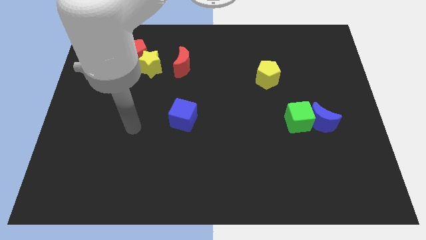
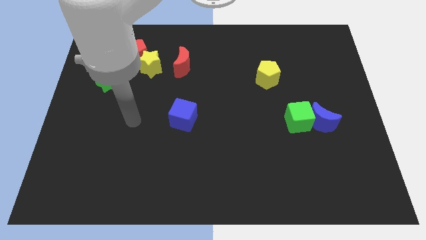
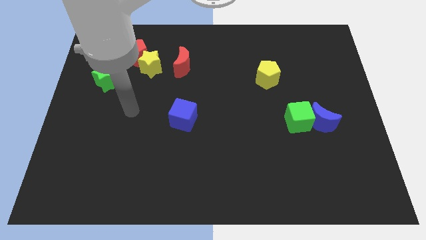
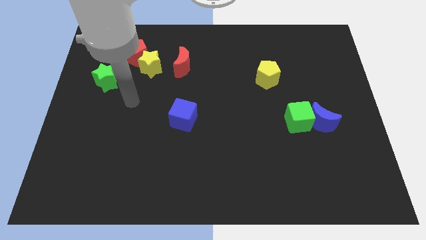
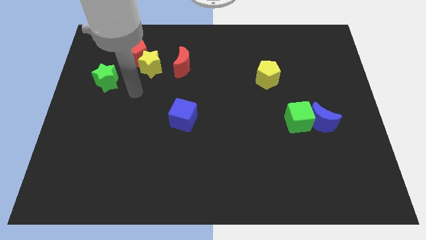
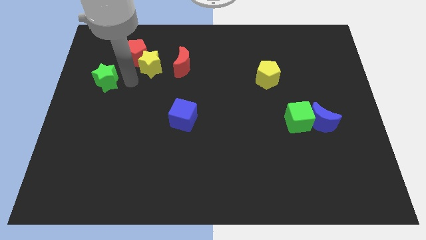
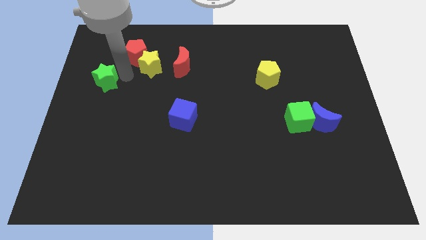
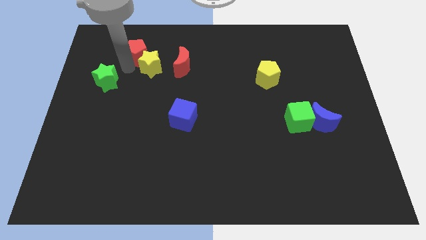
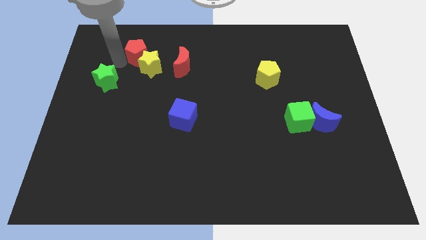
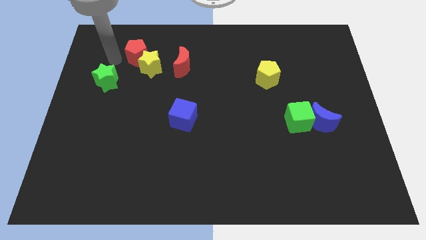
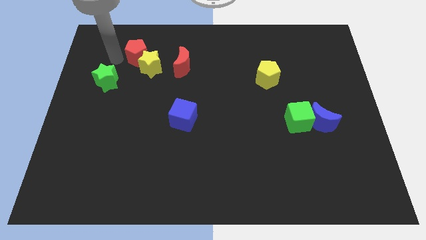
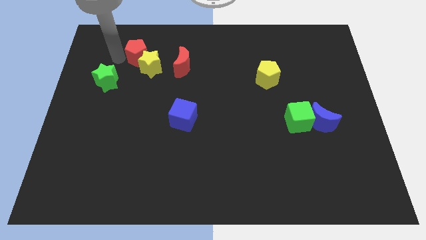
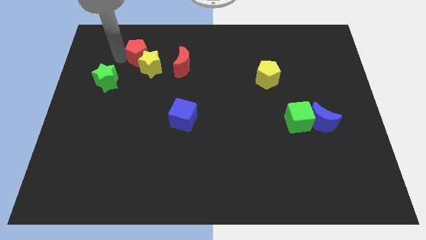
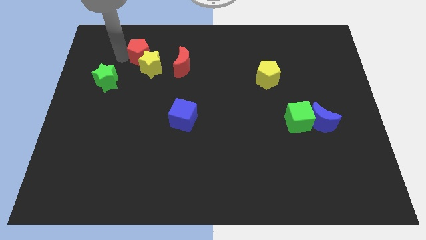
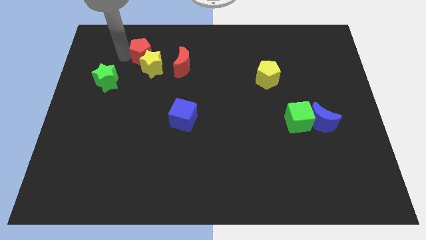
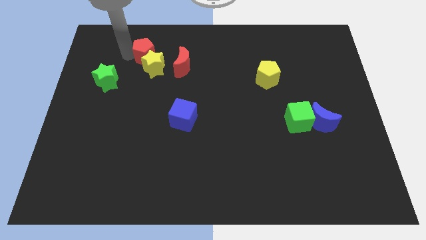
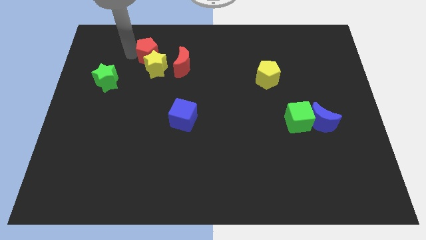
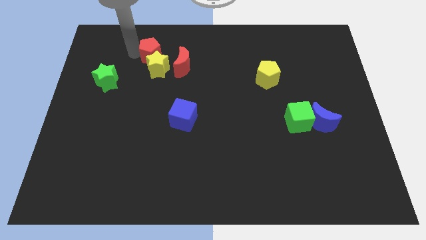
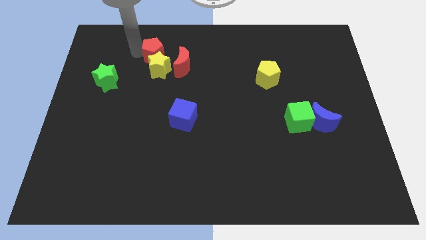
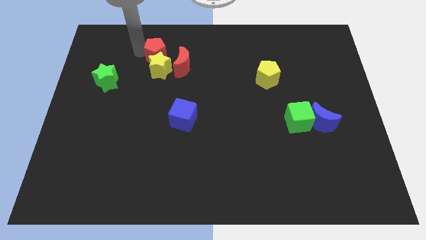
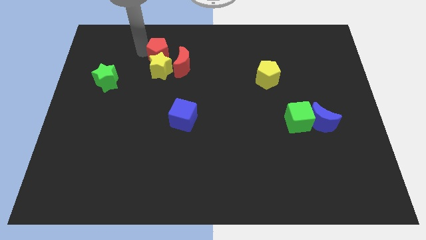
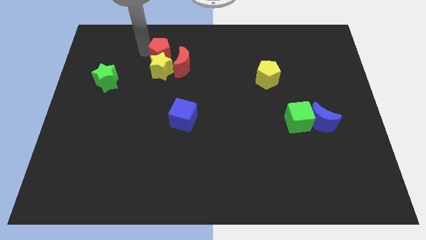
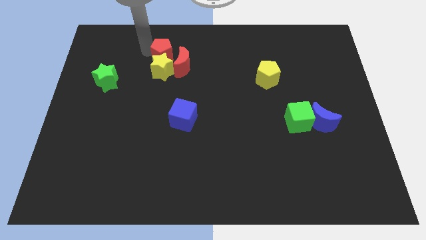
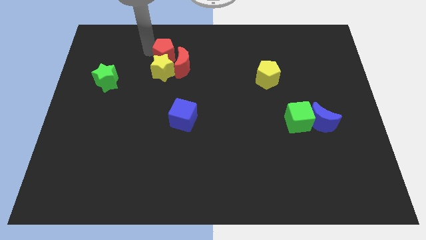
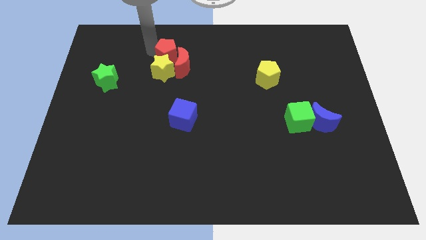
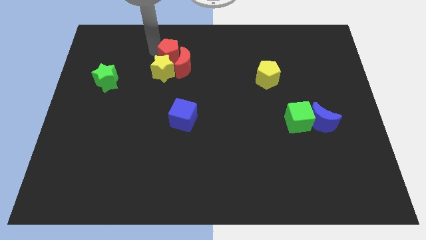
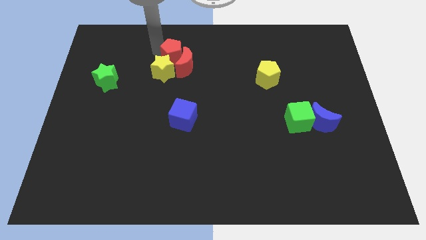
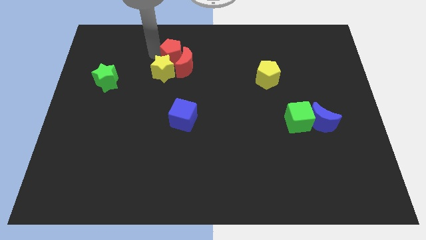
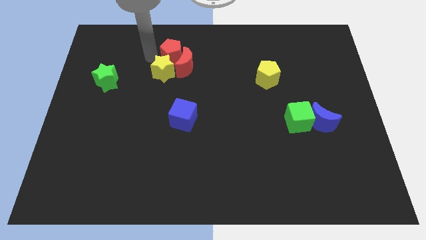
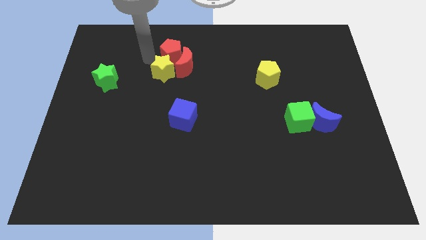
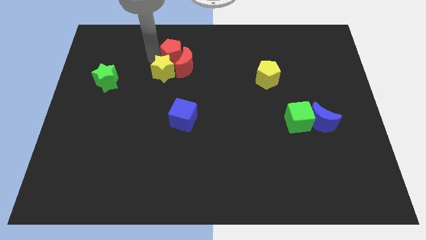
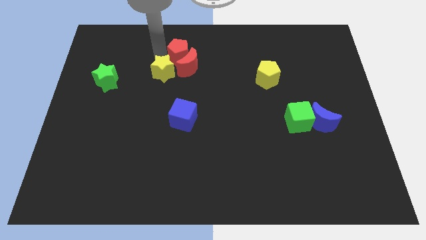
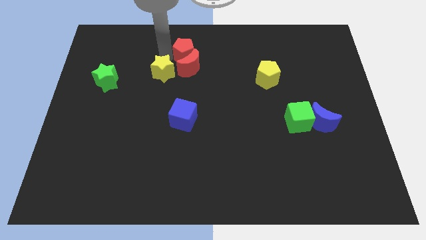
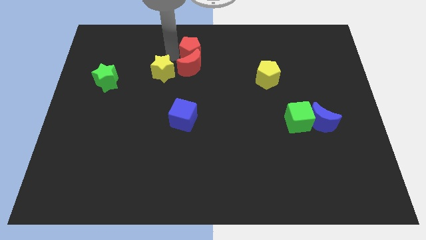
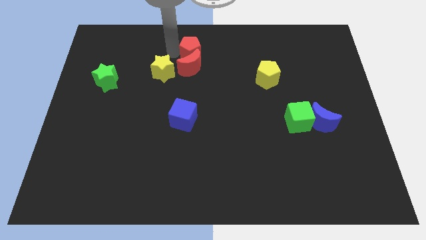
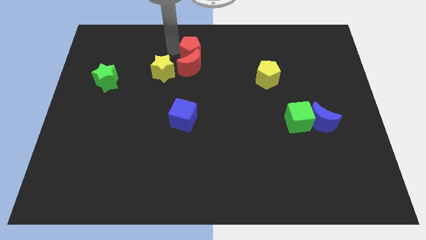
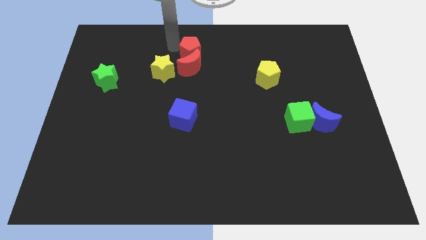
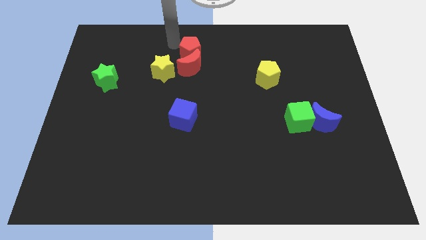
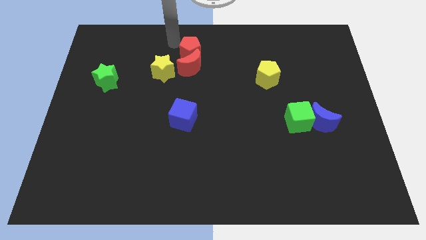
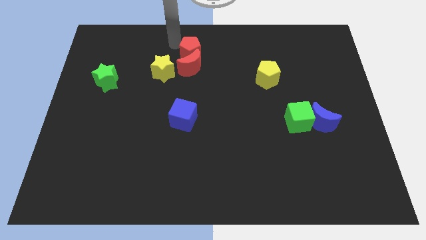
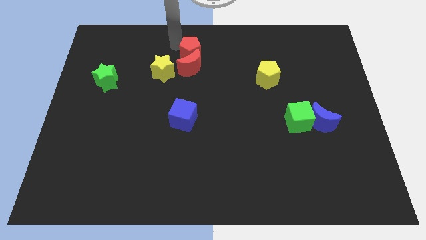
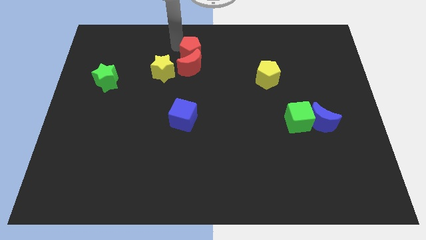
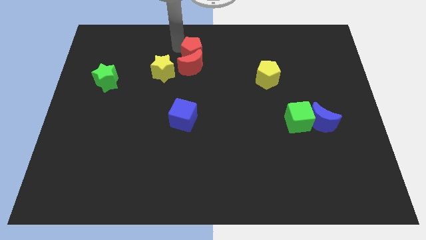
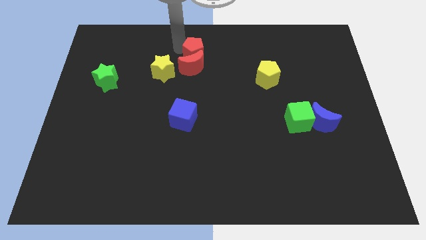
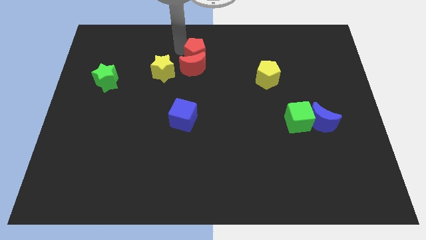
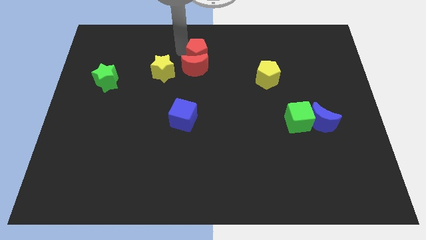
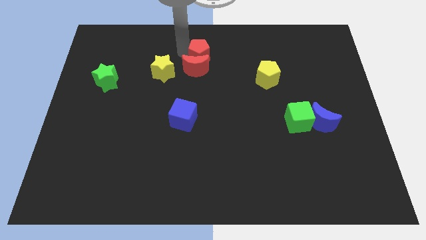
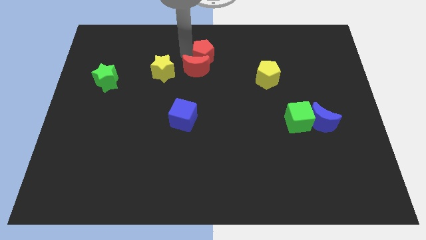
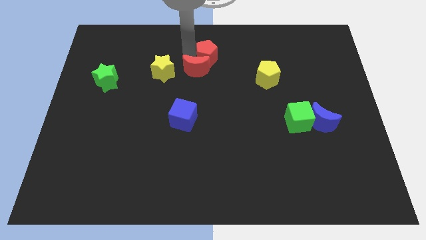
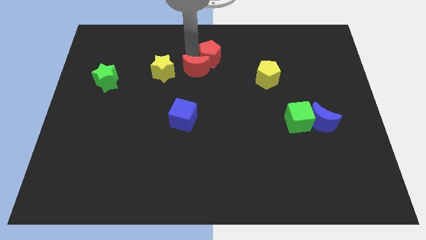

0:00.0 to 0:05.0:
put the red pentagon to the right side of the red moon

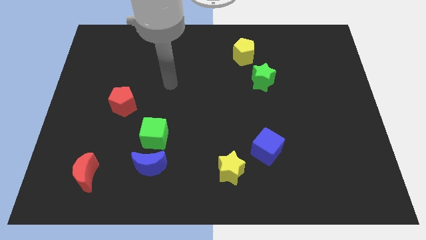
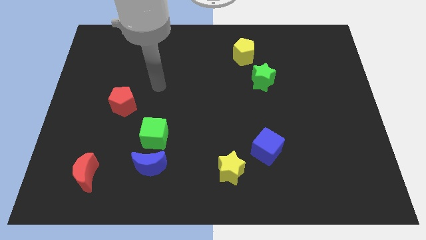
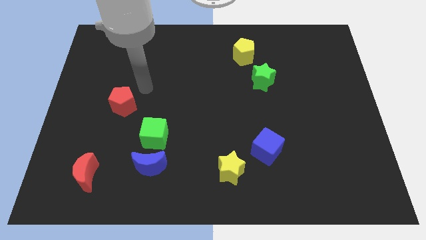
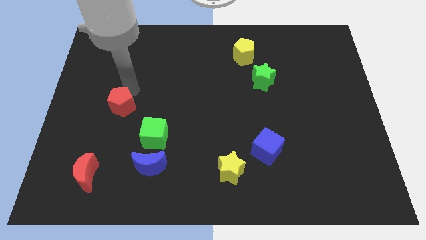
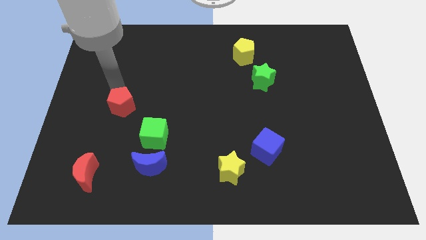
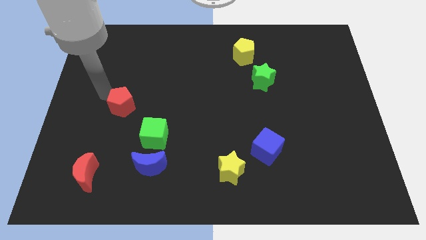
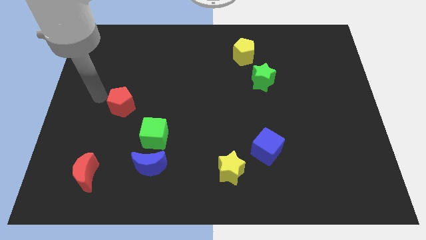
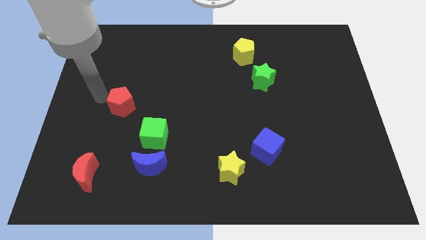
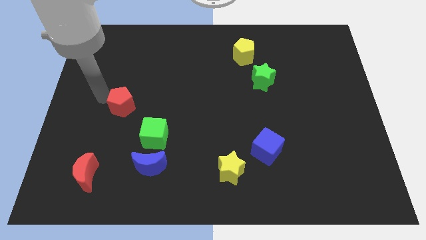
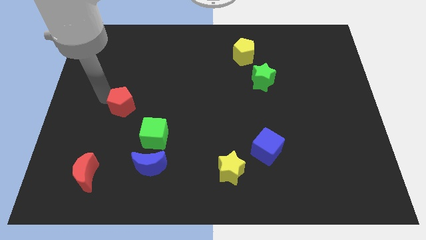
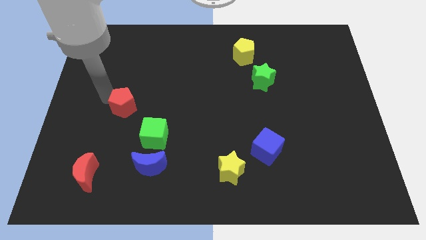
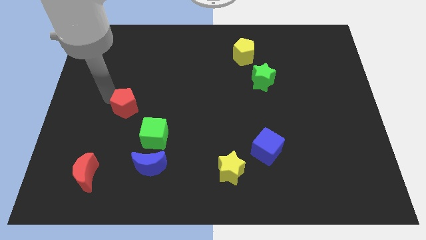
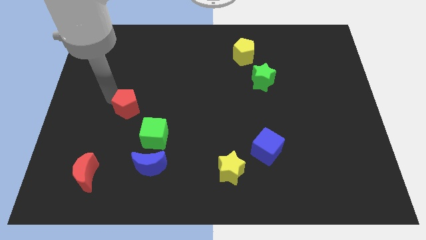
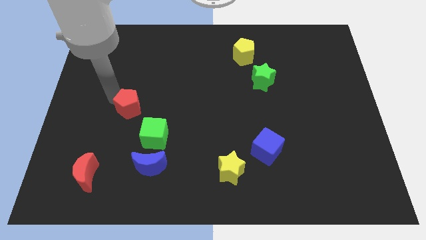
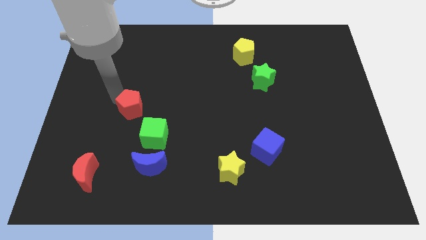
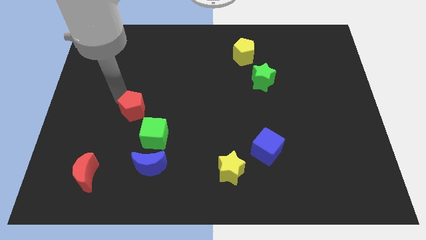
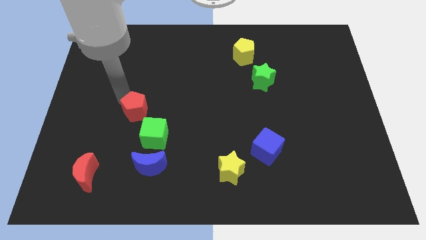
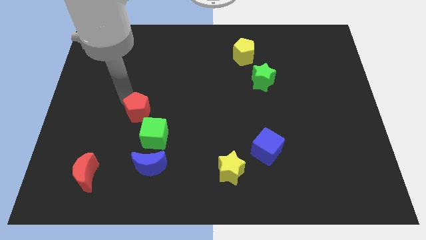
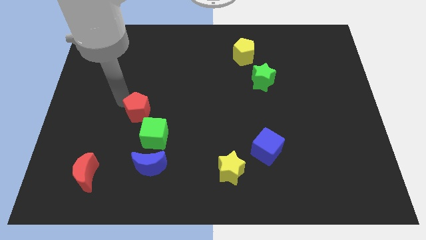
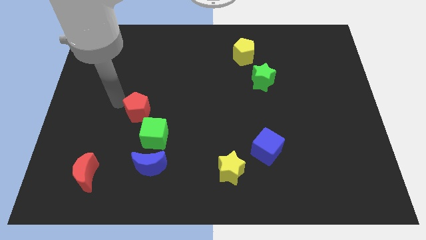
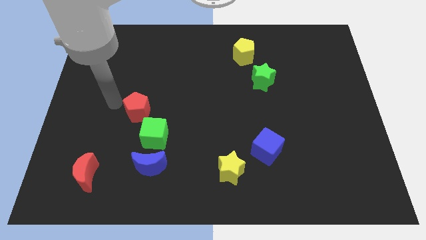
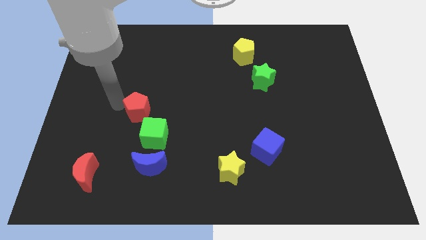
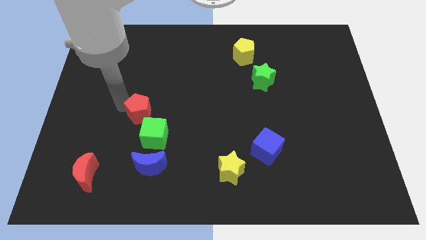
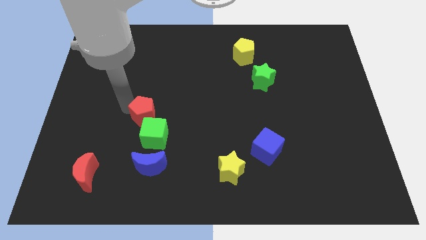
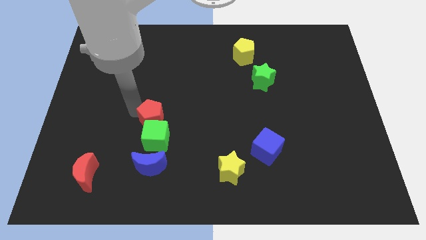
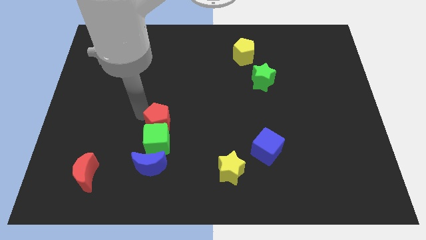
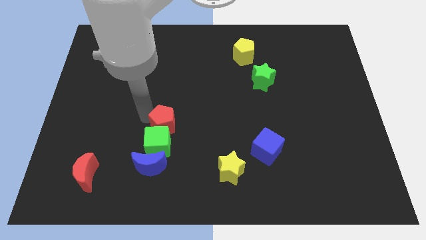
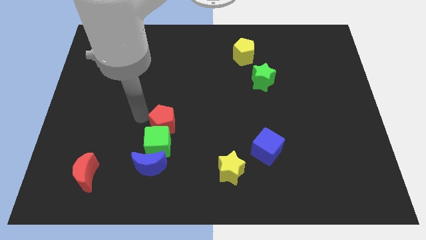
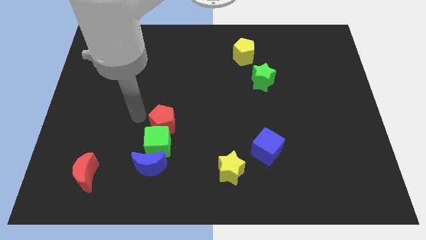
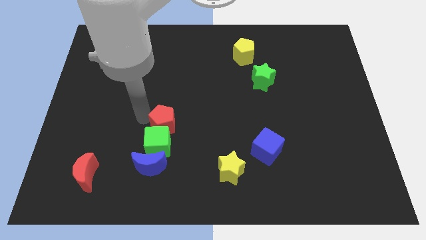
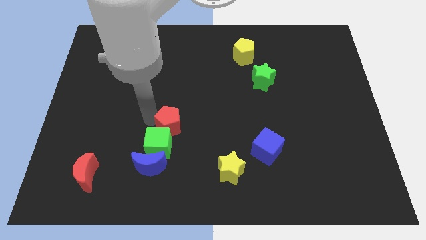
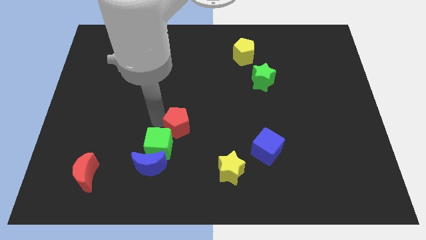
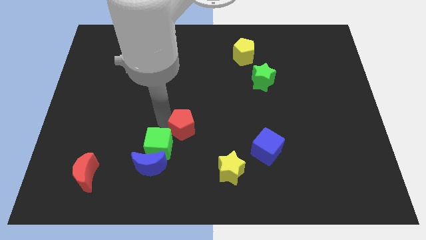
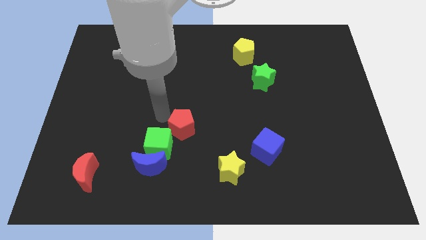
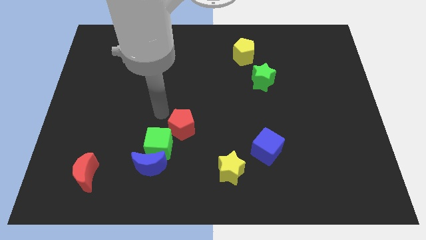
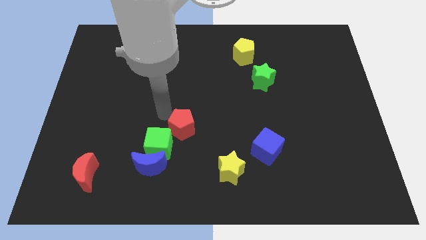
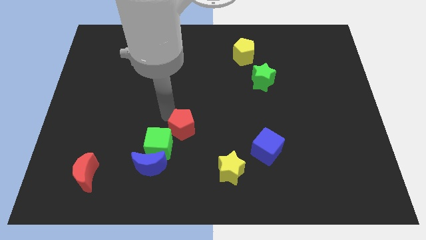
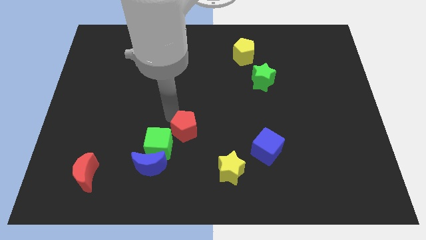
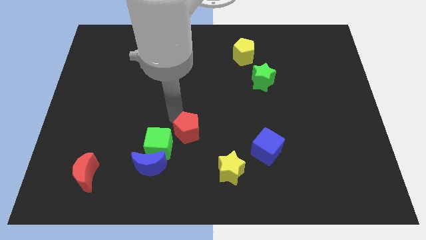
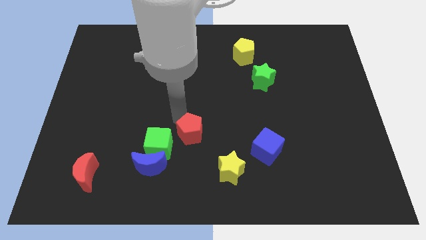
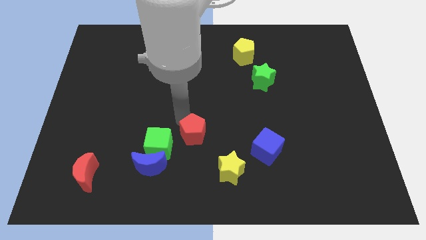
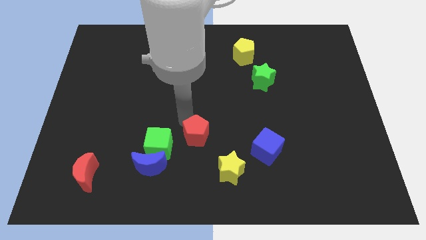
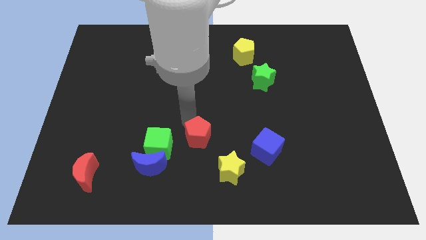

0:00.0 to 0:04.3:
slide the red pentagon just left of the blue cube
